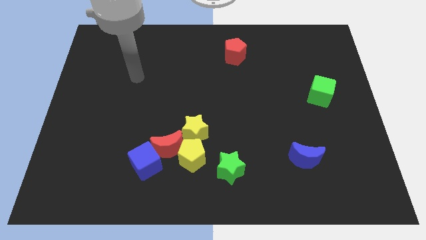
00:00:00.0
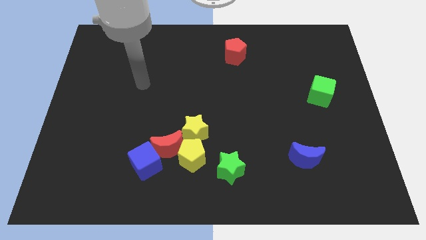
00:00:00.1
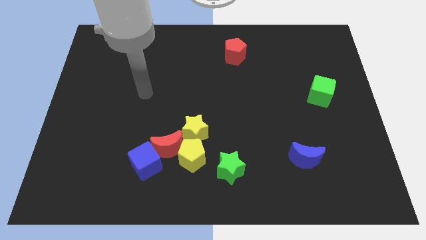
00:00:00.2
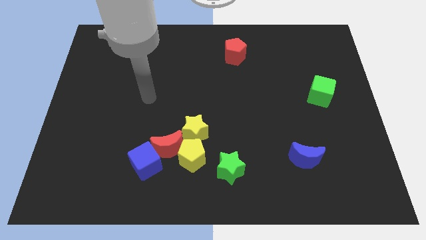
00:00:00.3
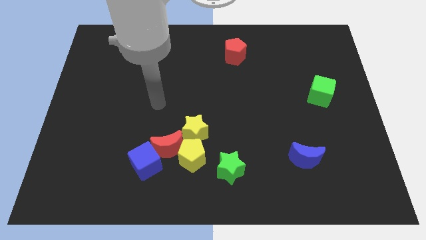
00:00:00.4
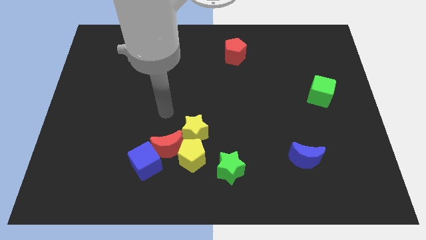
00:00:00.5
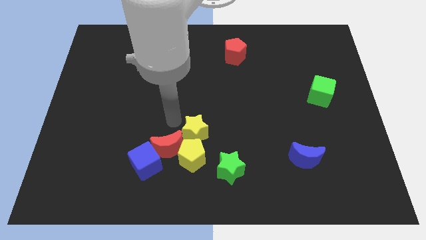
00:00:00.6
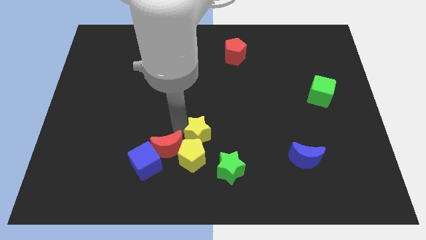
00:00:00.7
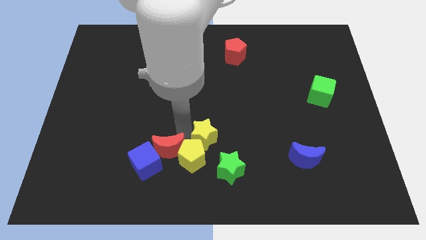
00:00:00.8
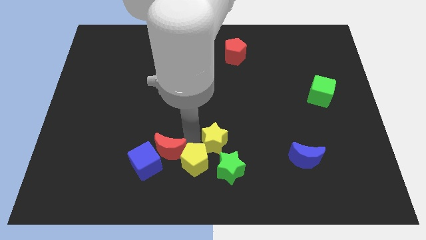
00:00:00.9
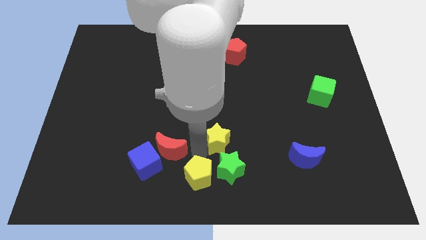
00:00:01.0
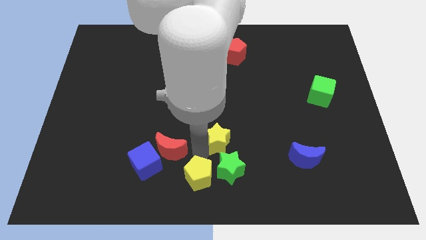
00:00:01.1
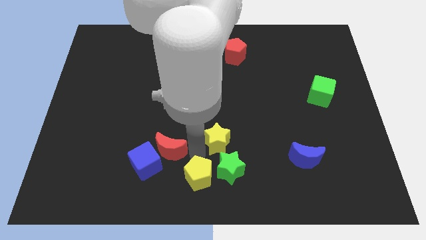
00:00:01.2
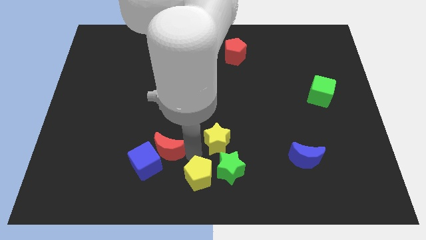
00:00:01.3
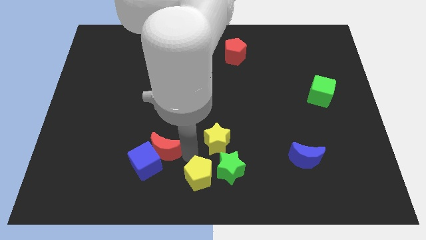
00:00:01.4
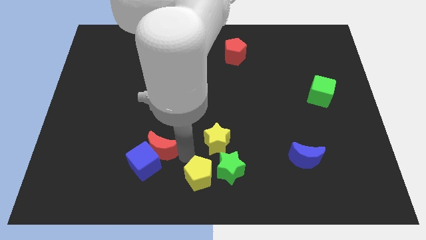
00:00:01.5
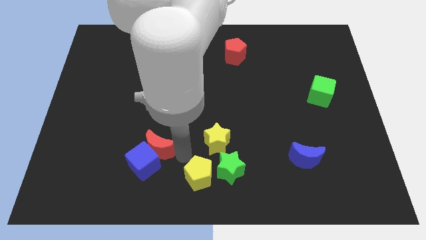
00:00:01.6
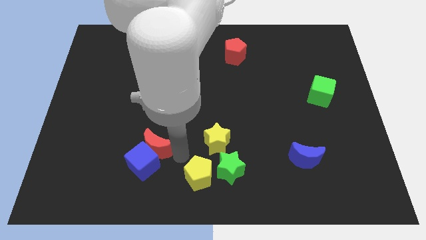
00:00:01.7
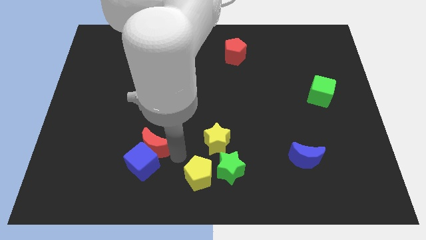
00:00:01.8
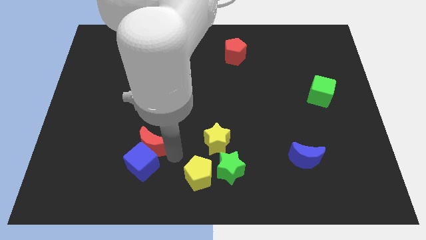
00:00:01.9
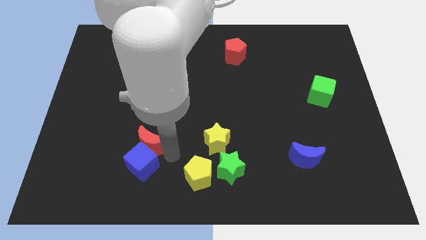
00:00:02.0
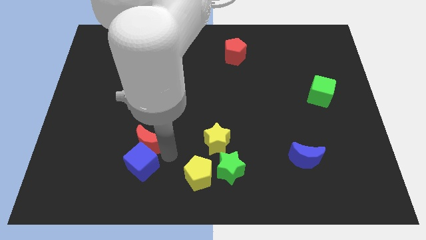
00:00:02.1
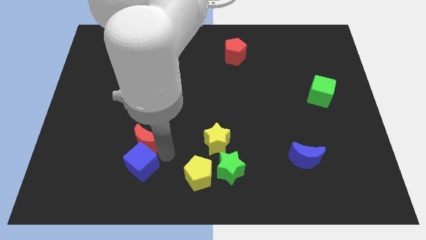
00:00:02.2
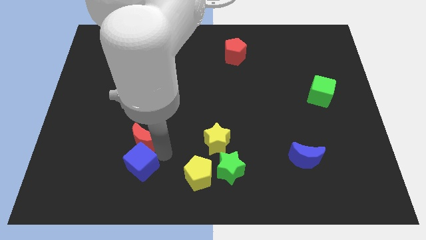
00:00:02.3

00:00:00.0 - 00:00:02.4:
pull the red moon apart from the yellow pentagon, blue cube, and yellow star

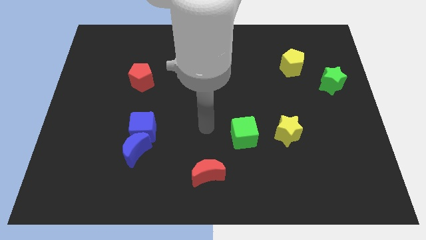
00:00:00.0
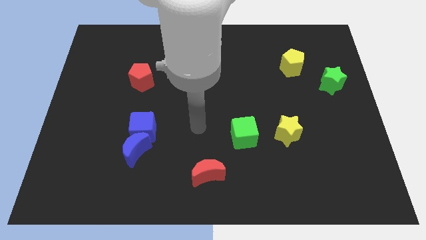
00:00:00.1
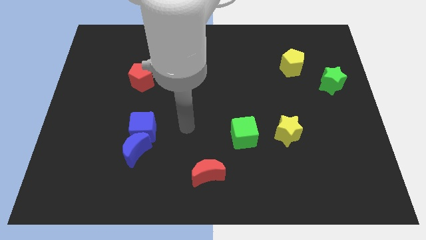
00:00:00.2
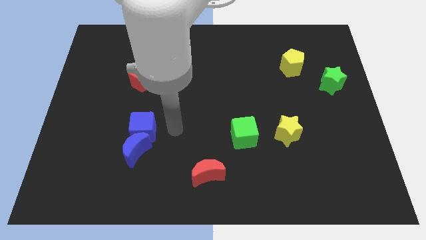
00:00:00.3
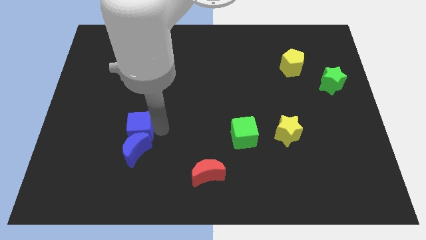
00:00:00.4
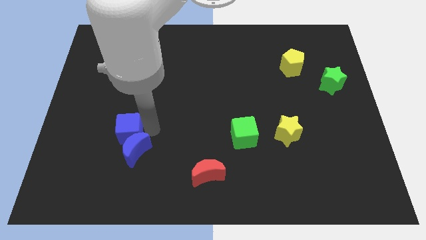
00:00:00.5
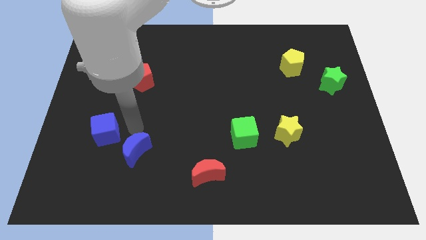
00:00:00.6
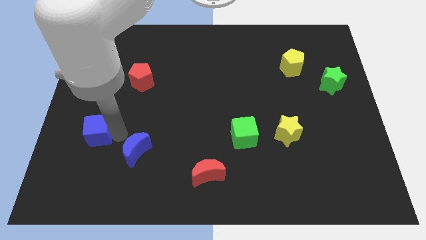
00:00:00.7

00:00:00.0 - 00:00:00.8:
separate the blue moon from the blue cube

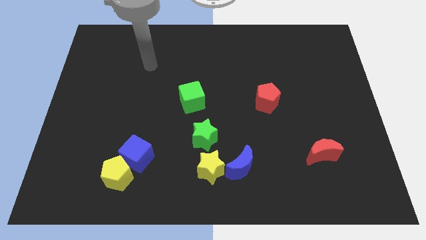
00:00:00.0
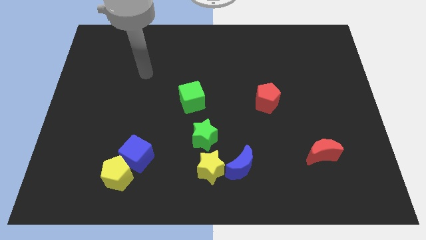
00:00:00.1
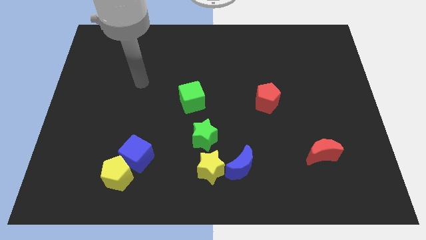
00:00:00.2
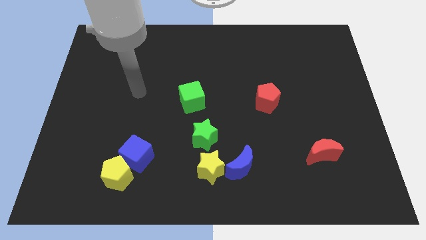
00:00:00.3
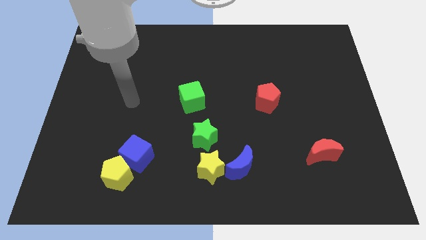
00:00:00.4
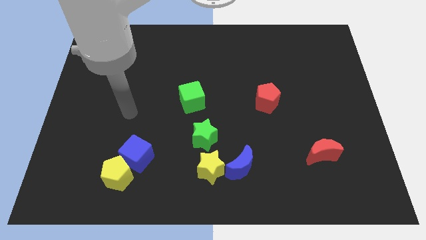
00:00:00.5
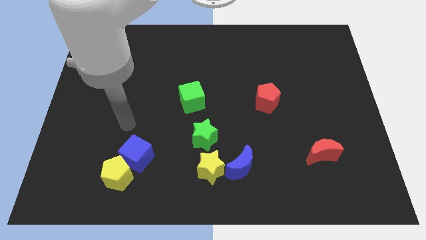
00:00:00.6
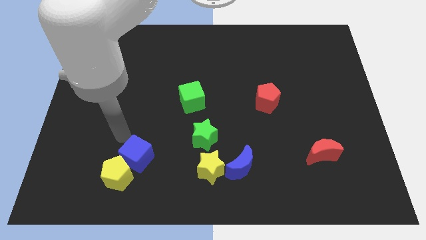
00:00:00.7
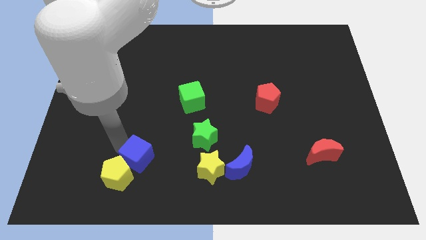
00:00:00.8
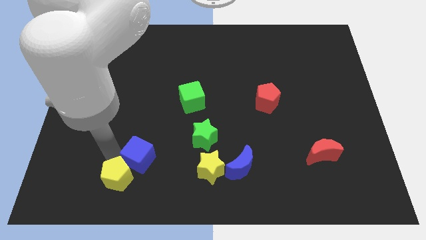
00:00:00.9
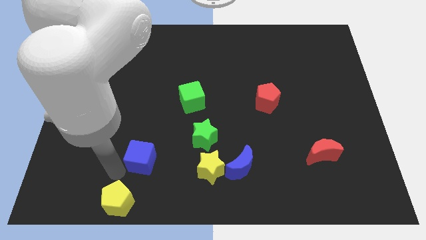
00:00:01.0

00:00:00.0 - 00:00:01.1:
move the blue cube away from the yellow pentagon

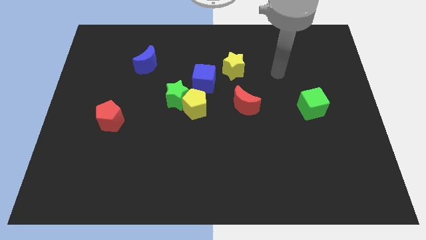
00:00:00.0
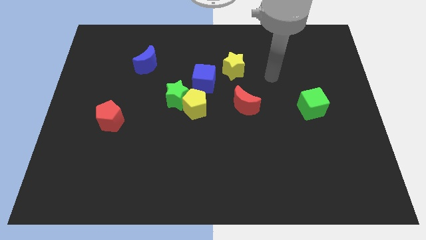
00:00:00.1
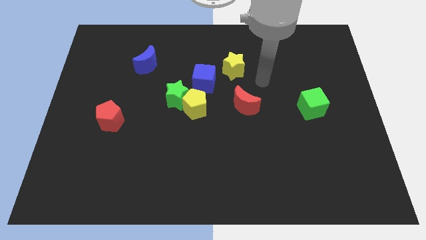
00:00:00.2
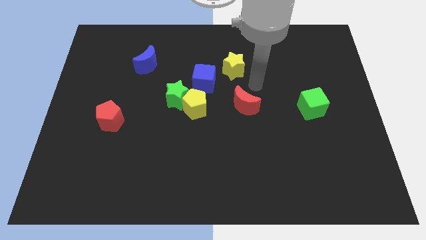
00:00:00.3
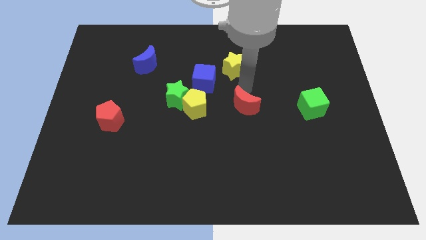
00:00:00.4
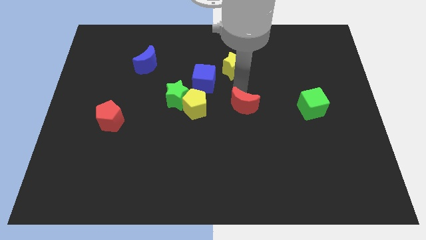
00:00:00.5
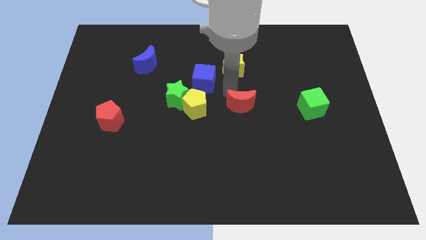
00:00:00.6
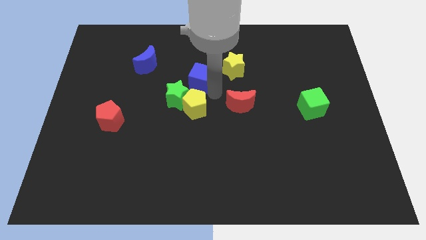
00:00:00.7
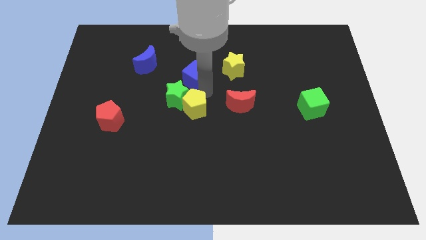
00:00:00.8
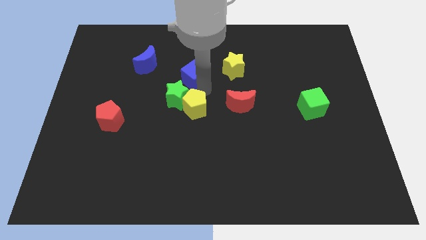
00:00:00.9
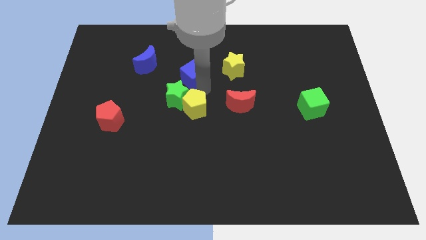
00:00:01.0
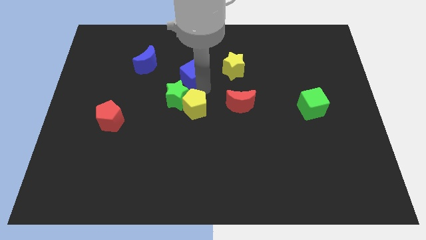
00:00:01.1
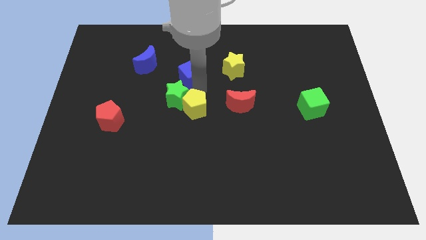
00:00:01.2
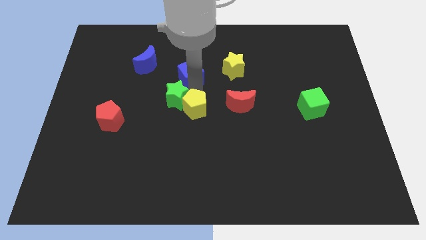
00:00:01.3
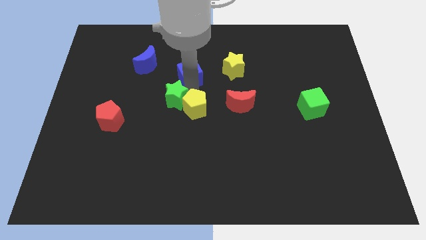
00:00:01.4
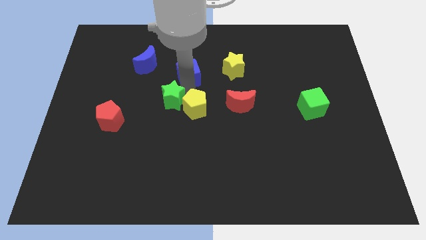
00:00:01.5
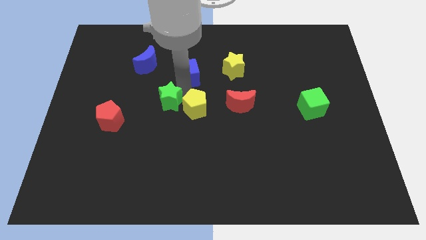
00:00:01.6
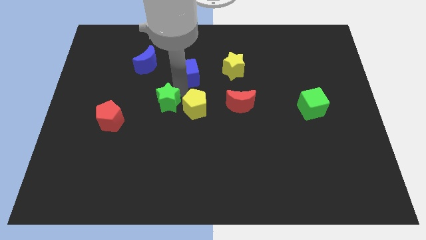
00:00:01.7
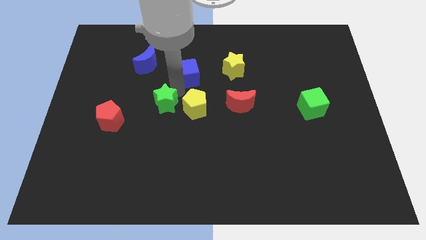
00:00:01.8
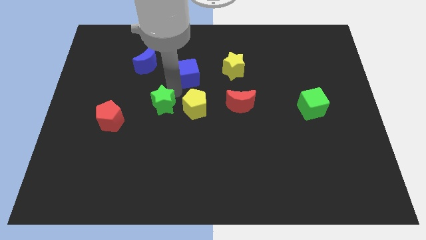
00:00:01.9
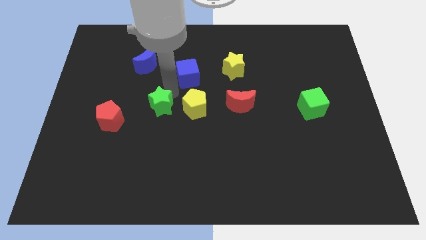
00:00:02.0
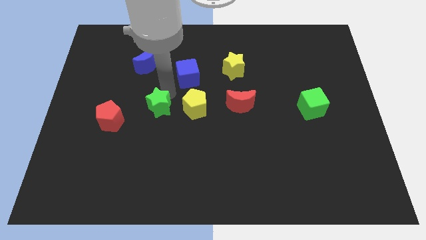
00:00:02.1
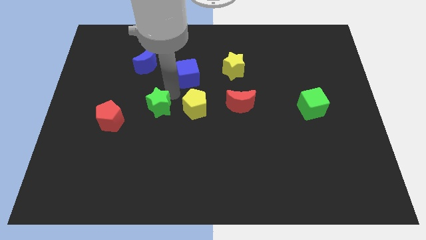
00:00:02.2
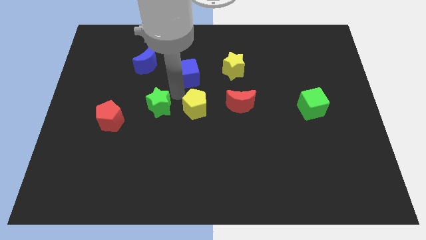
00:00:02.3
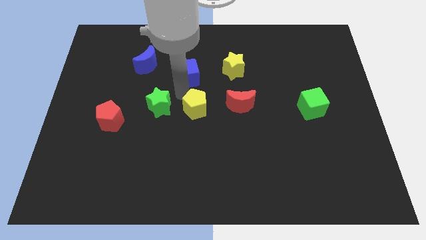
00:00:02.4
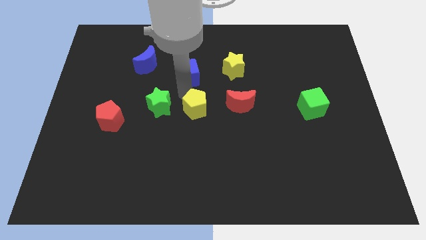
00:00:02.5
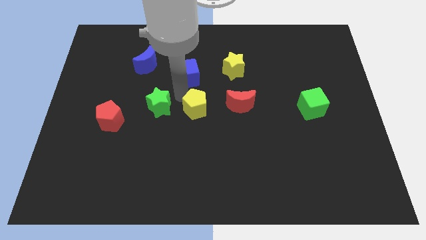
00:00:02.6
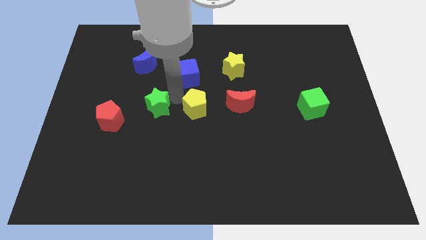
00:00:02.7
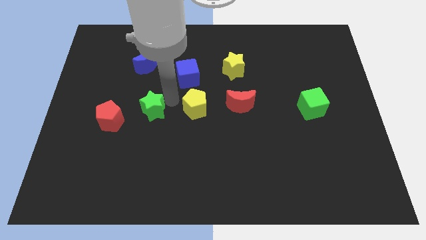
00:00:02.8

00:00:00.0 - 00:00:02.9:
move the green star away from the yellow pentagon and blue cube

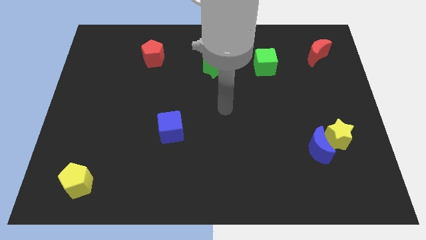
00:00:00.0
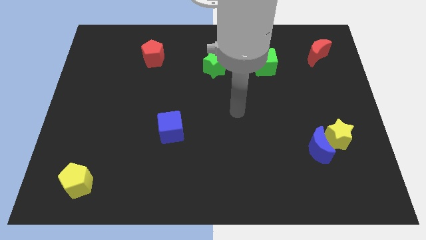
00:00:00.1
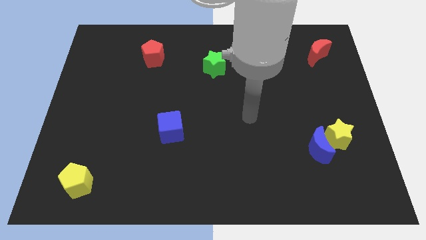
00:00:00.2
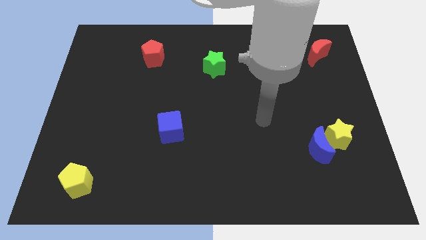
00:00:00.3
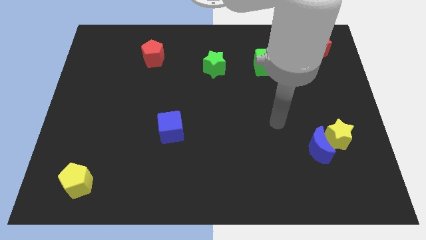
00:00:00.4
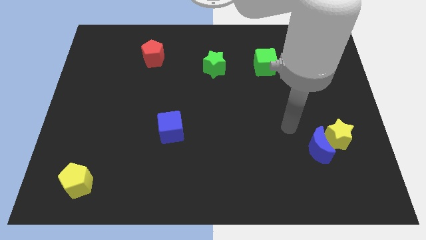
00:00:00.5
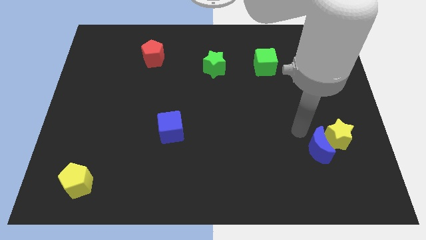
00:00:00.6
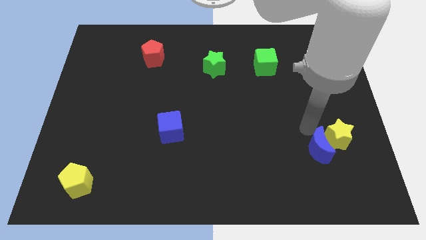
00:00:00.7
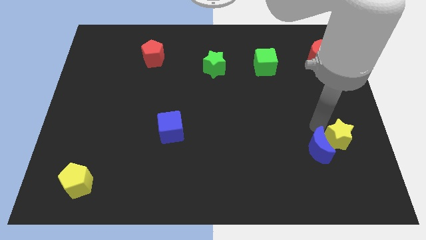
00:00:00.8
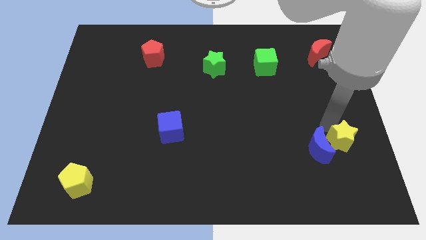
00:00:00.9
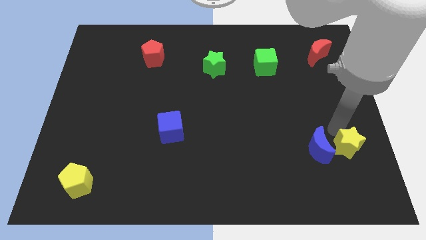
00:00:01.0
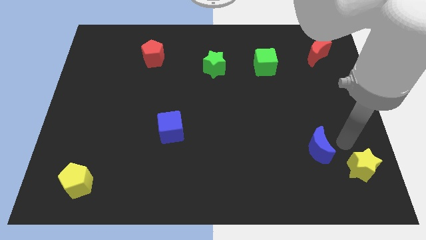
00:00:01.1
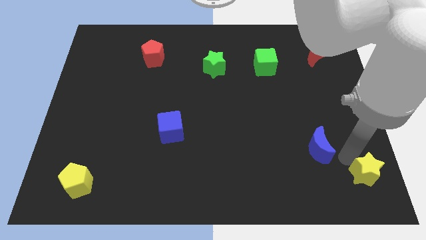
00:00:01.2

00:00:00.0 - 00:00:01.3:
pull the blue moon apart from the yellow star

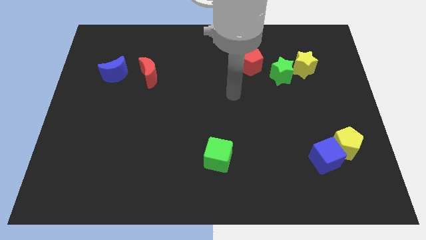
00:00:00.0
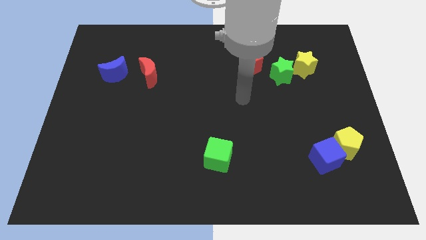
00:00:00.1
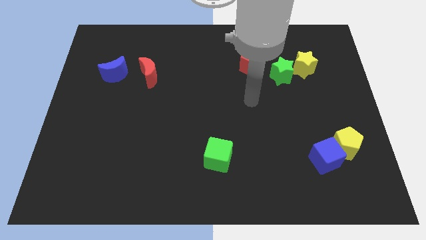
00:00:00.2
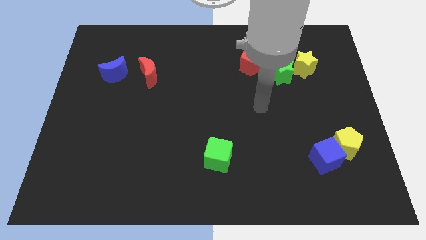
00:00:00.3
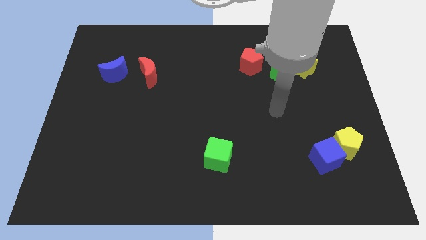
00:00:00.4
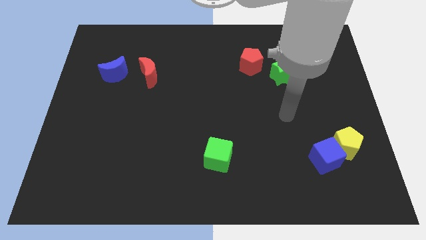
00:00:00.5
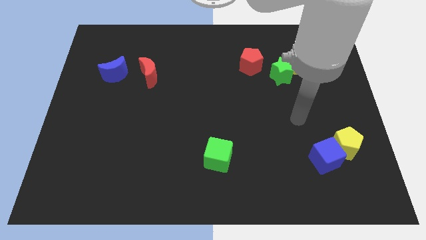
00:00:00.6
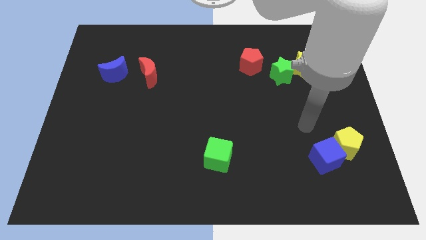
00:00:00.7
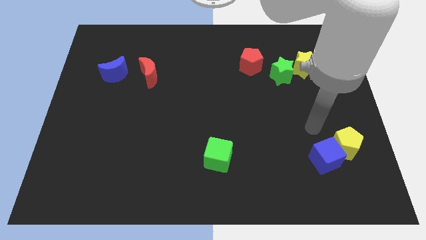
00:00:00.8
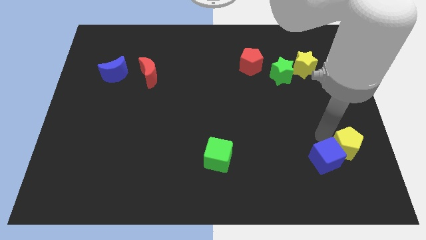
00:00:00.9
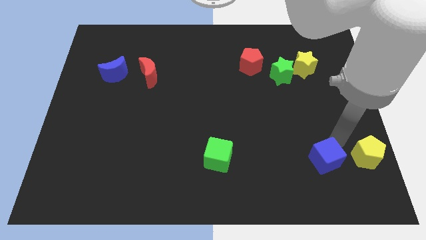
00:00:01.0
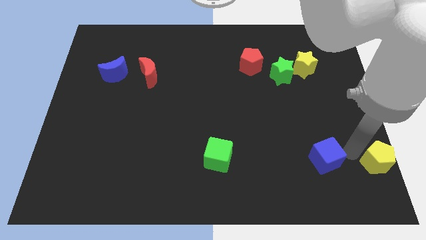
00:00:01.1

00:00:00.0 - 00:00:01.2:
pull the blue cube apart from the yellow pentagon
